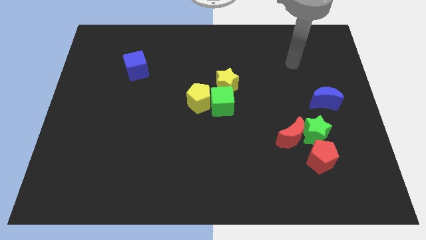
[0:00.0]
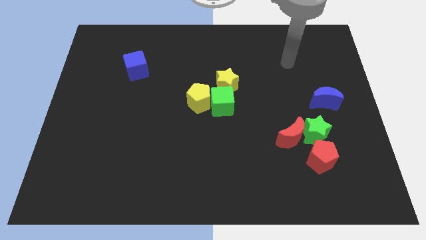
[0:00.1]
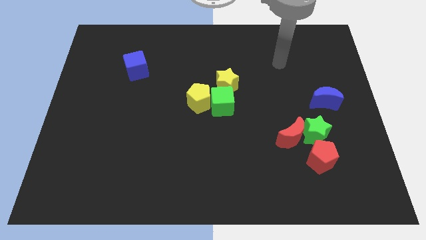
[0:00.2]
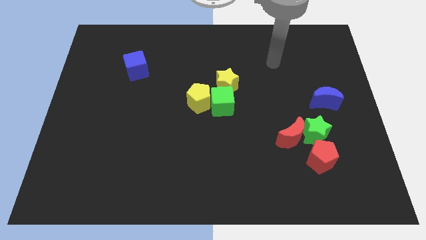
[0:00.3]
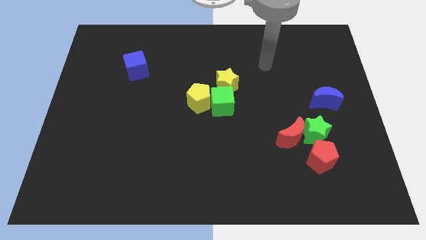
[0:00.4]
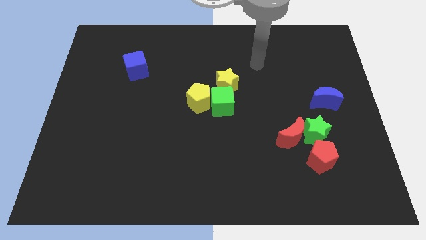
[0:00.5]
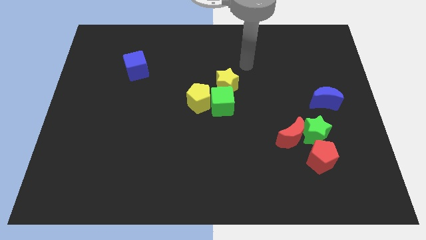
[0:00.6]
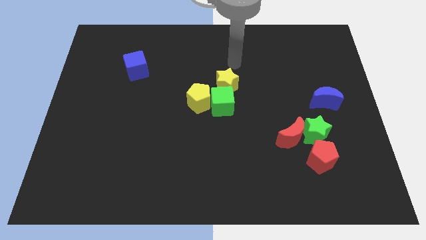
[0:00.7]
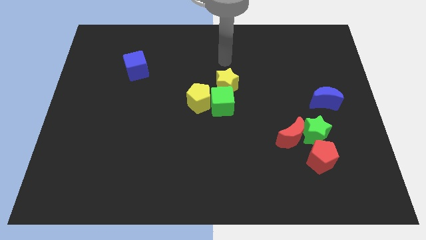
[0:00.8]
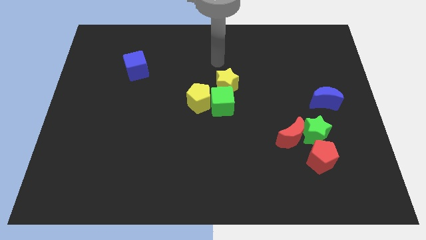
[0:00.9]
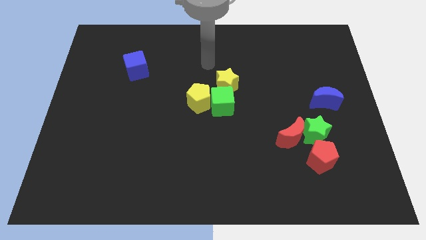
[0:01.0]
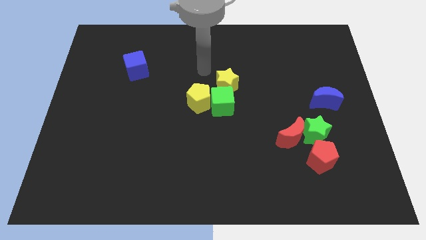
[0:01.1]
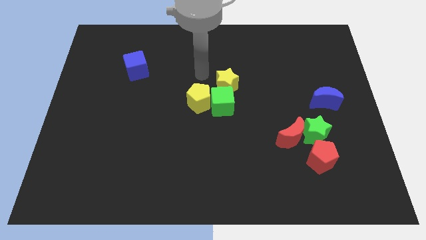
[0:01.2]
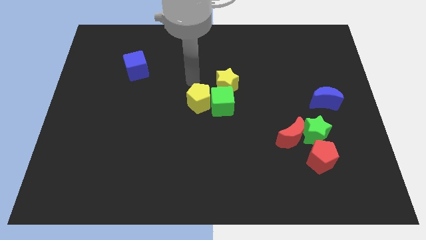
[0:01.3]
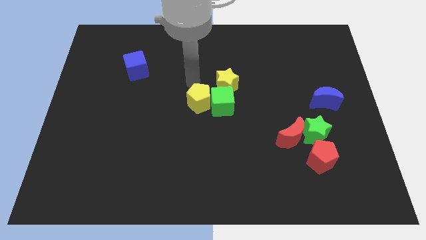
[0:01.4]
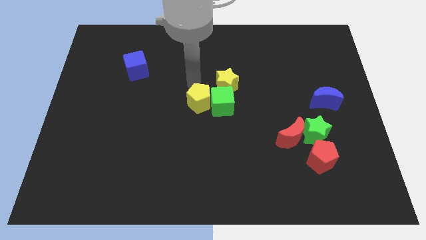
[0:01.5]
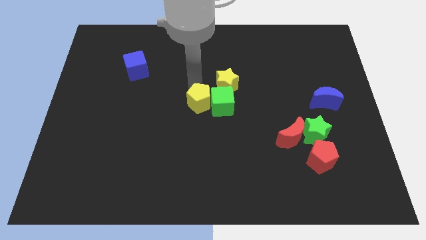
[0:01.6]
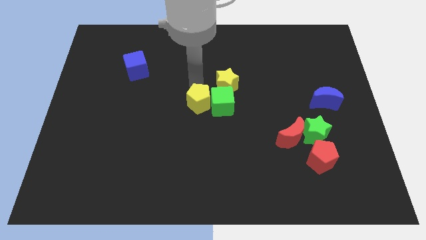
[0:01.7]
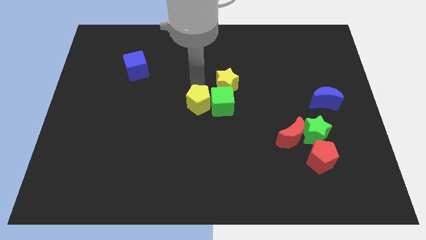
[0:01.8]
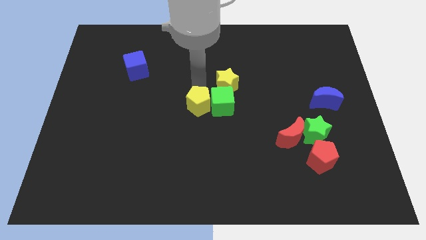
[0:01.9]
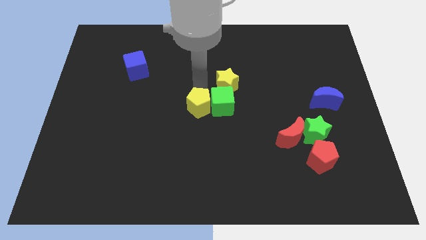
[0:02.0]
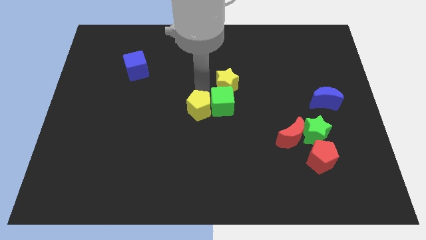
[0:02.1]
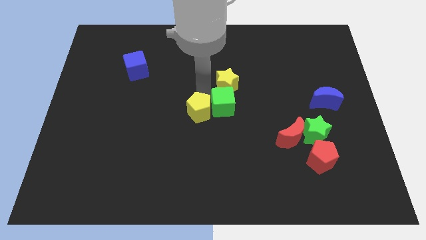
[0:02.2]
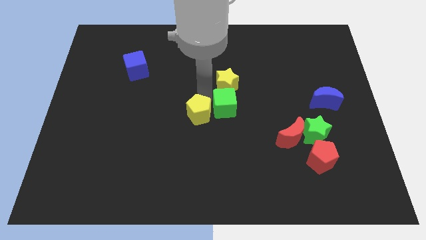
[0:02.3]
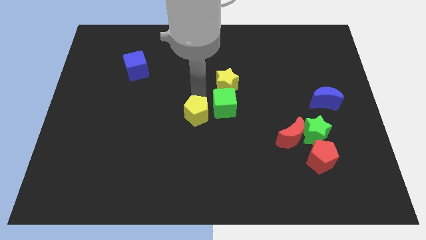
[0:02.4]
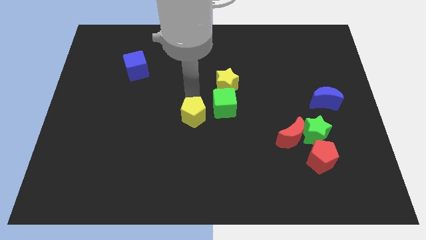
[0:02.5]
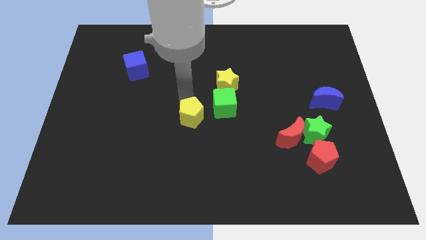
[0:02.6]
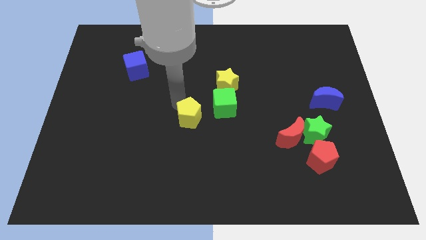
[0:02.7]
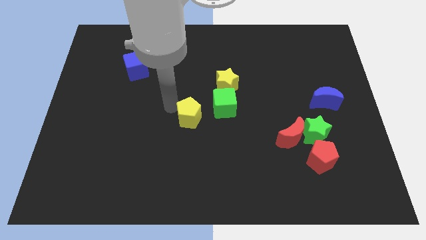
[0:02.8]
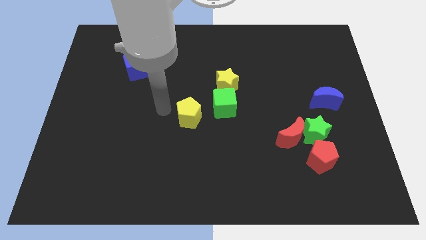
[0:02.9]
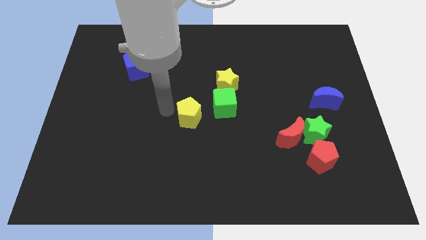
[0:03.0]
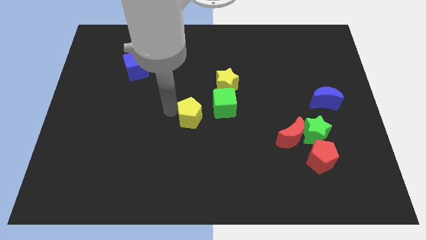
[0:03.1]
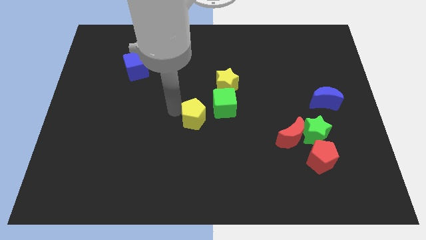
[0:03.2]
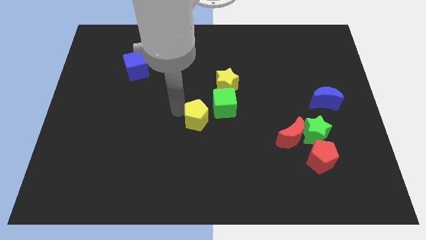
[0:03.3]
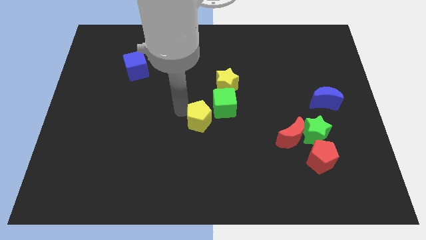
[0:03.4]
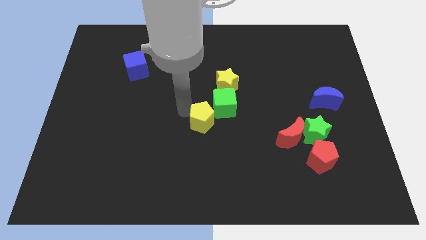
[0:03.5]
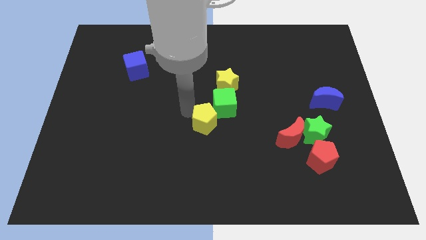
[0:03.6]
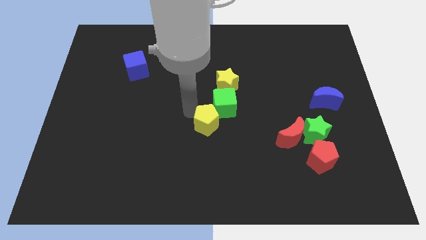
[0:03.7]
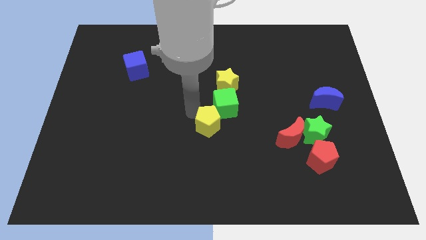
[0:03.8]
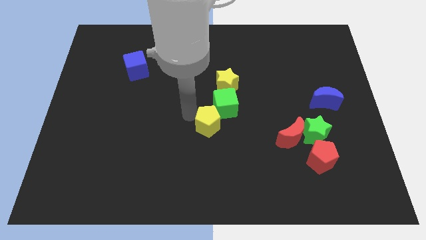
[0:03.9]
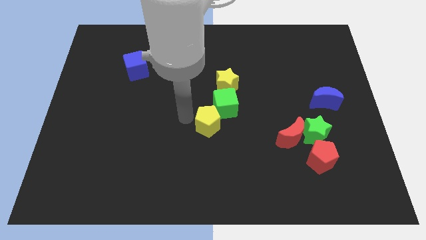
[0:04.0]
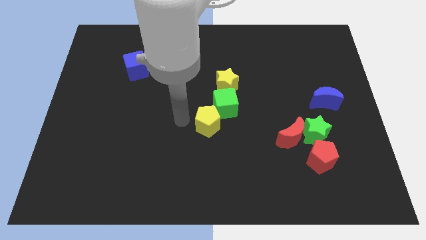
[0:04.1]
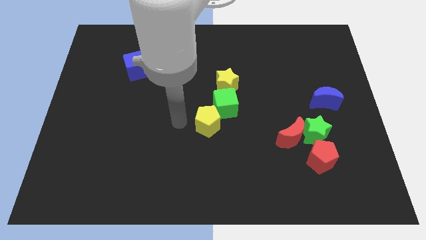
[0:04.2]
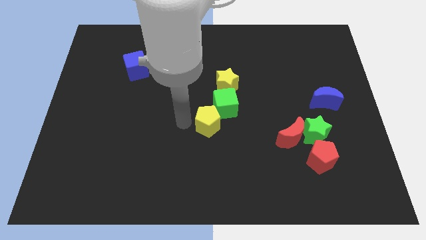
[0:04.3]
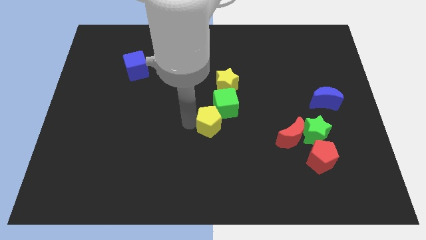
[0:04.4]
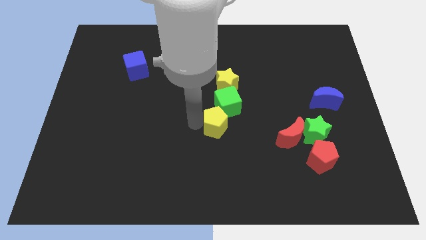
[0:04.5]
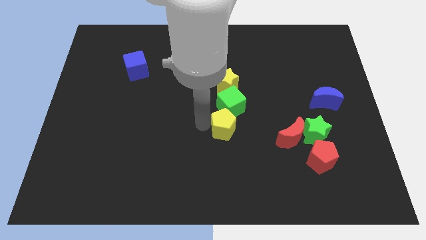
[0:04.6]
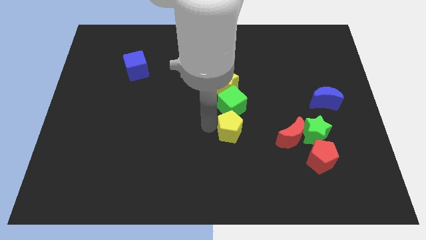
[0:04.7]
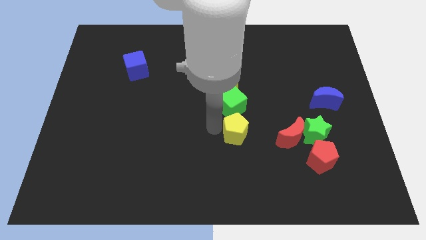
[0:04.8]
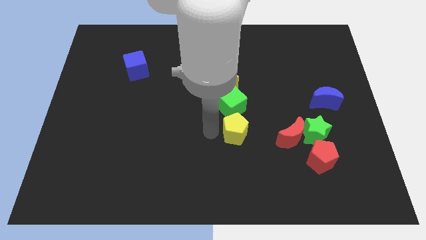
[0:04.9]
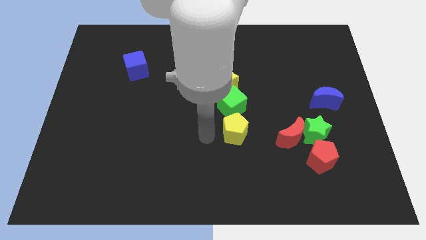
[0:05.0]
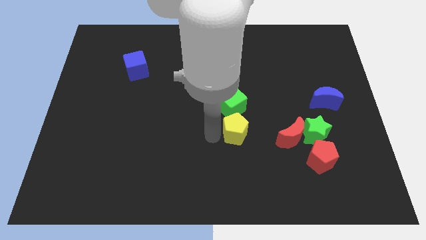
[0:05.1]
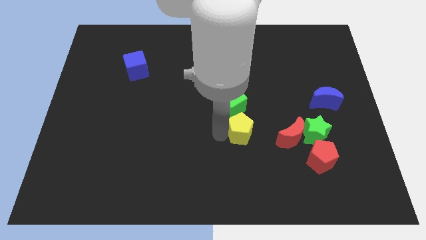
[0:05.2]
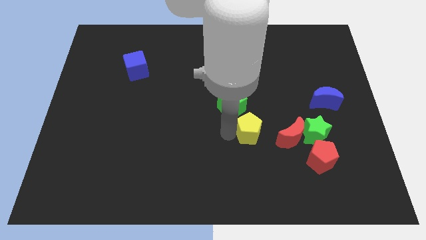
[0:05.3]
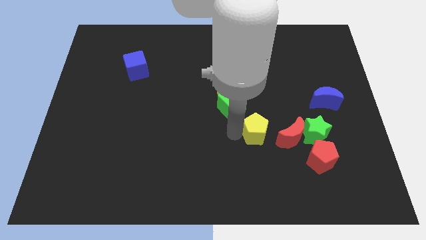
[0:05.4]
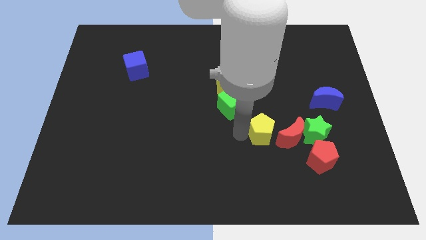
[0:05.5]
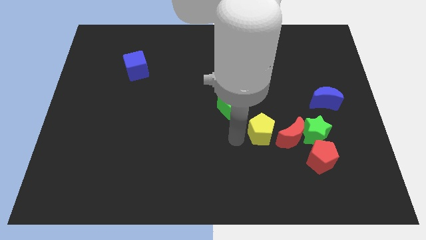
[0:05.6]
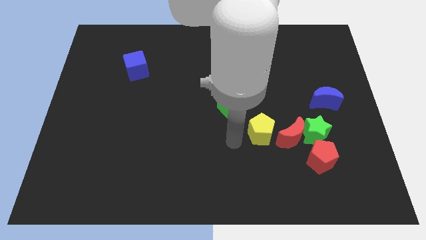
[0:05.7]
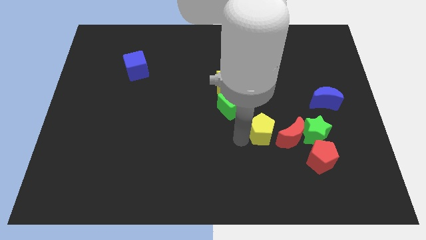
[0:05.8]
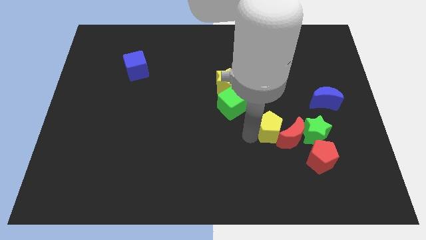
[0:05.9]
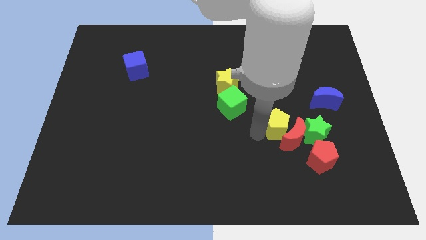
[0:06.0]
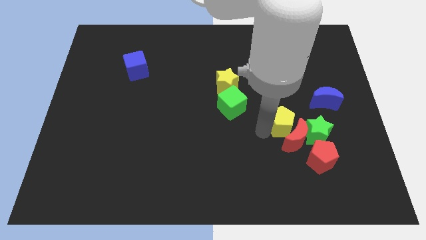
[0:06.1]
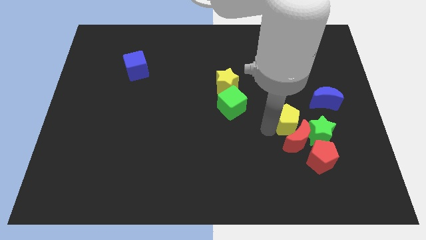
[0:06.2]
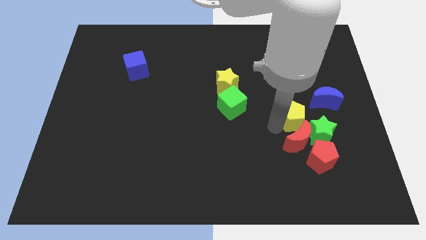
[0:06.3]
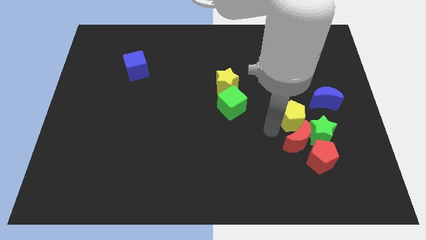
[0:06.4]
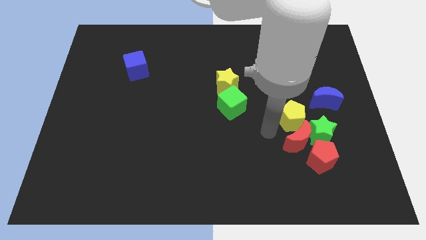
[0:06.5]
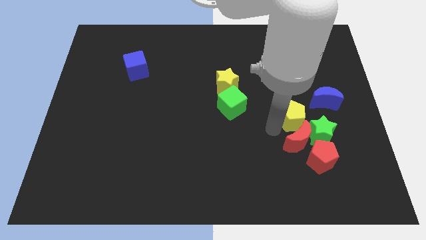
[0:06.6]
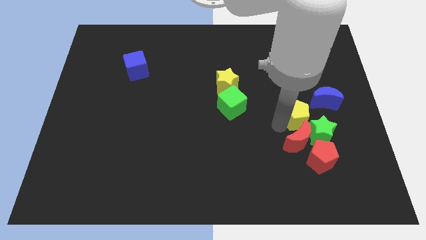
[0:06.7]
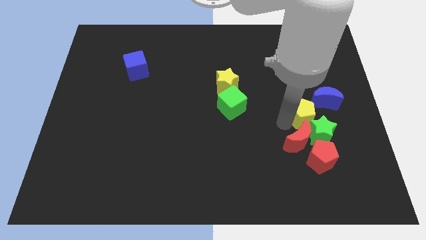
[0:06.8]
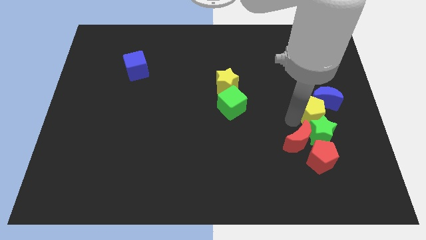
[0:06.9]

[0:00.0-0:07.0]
put the yellow pentagon to the blue moon
